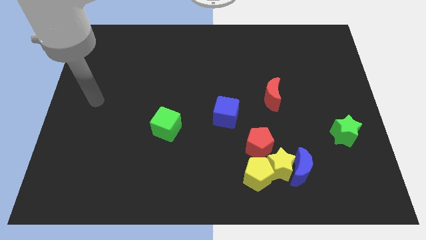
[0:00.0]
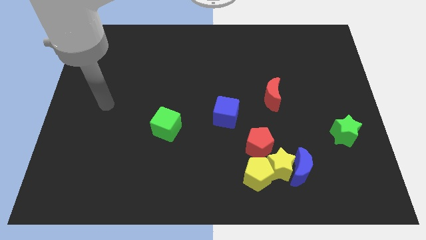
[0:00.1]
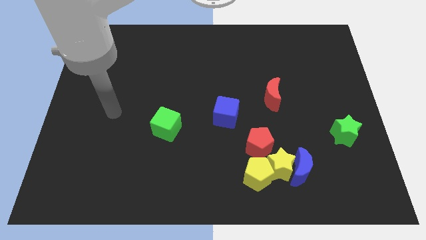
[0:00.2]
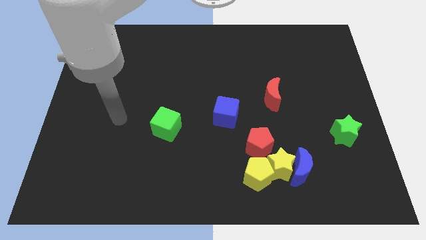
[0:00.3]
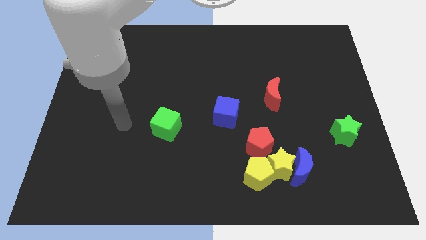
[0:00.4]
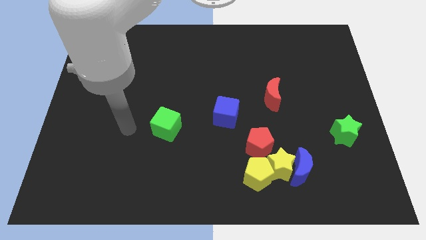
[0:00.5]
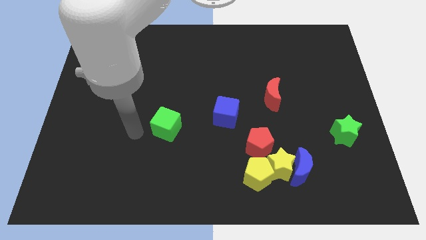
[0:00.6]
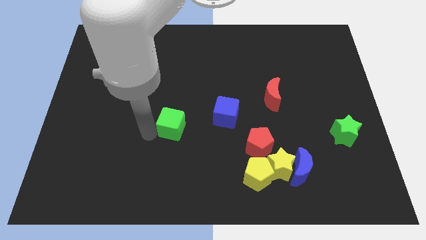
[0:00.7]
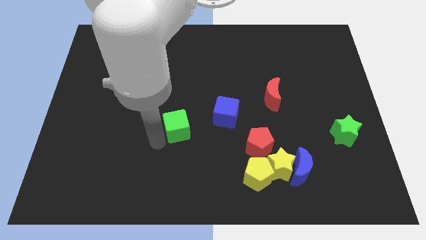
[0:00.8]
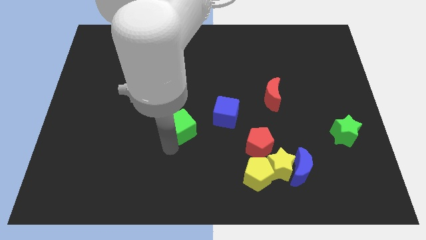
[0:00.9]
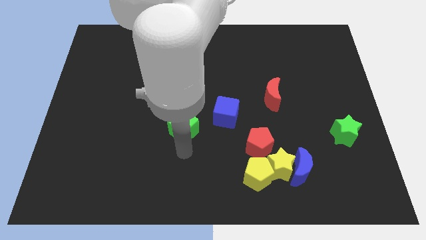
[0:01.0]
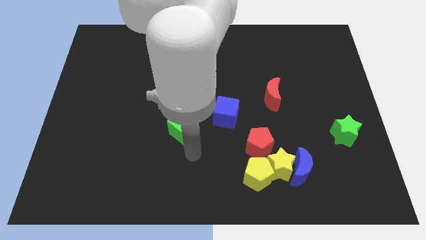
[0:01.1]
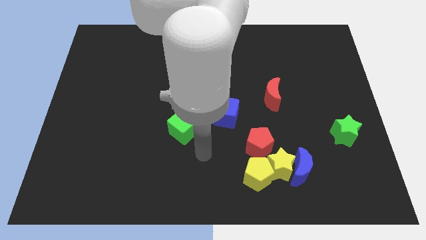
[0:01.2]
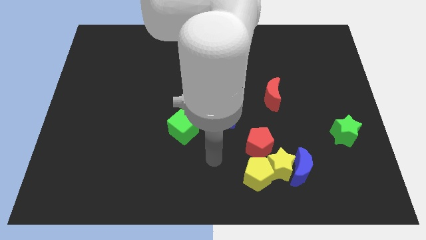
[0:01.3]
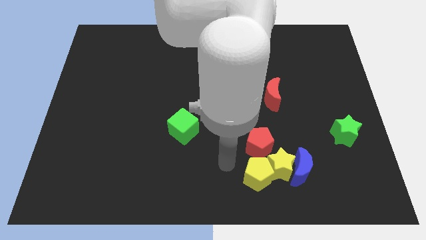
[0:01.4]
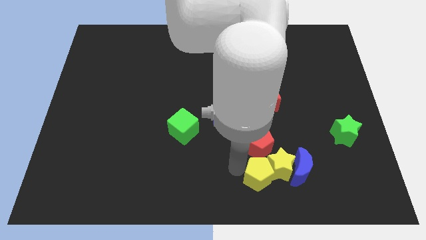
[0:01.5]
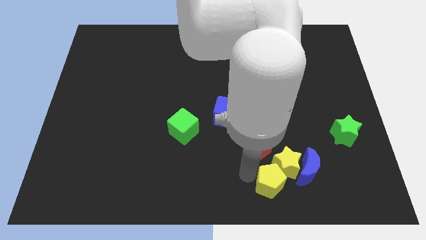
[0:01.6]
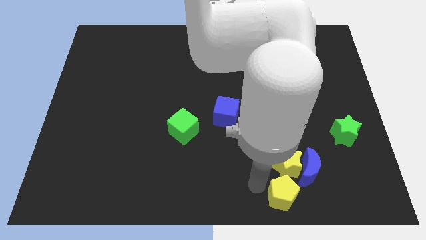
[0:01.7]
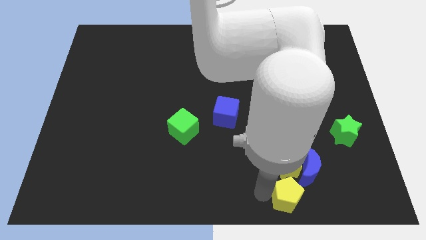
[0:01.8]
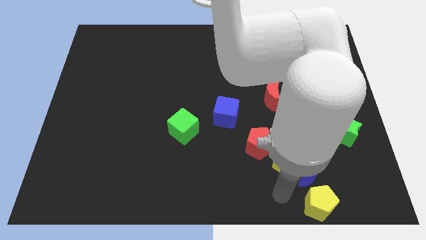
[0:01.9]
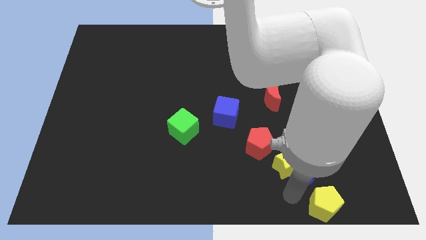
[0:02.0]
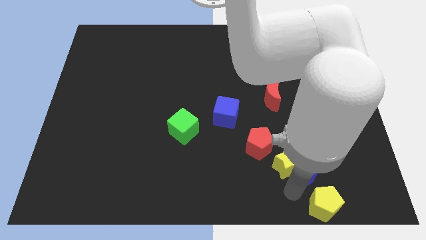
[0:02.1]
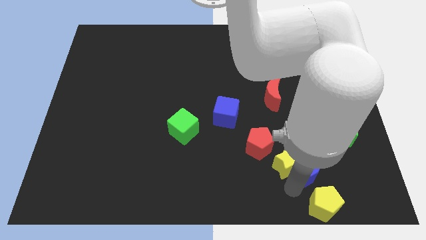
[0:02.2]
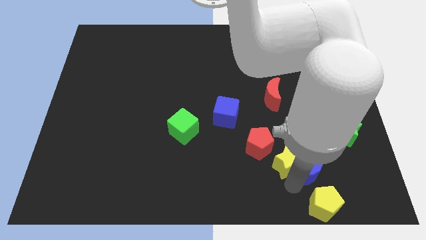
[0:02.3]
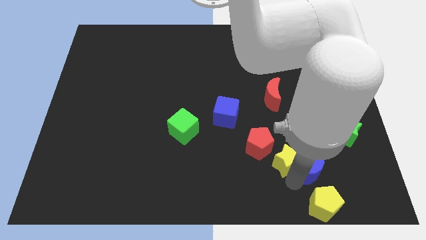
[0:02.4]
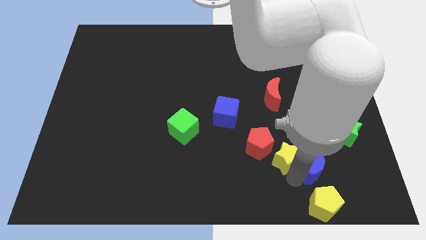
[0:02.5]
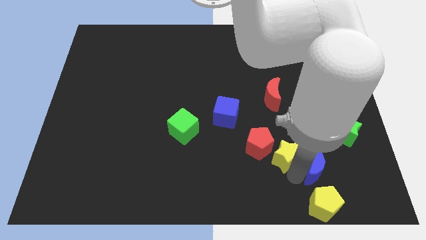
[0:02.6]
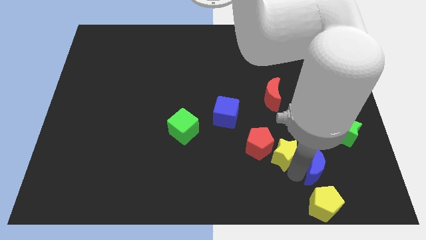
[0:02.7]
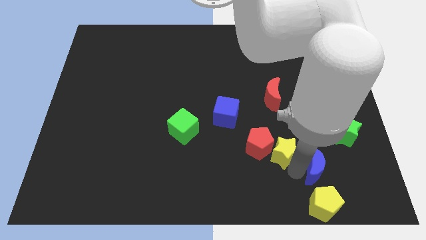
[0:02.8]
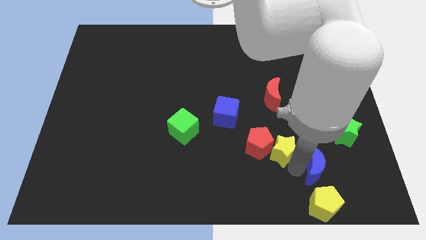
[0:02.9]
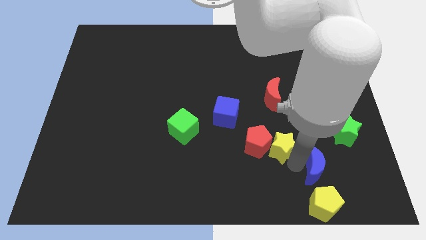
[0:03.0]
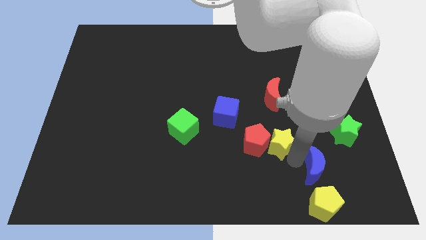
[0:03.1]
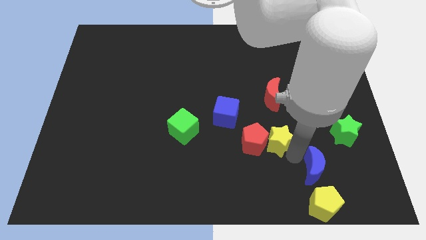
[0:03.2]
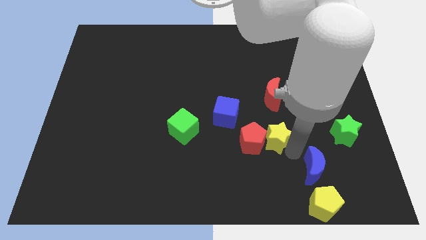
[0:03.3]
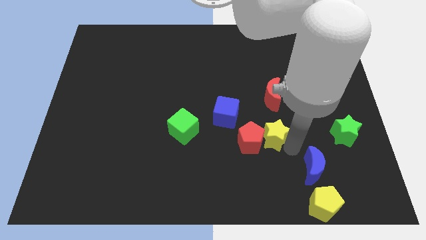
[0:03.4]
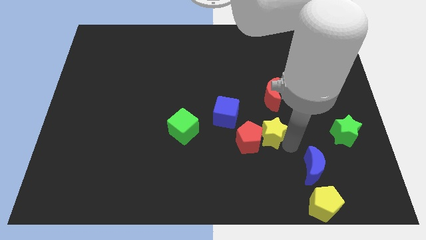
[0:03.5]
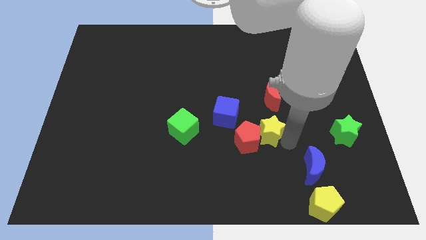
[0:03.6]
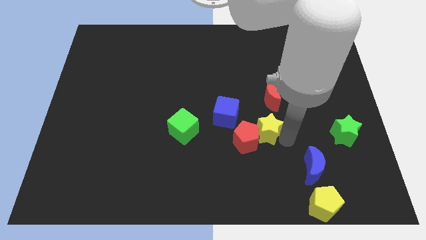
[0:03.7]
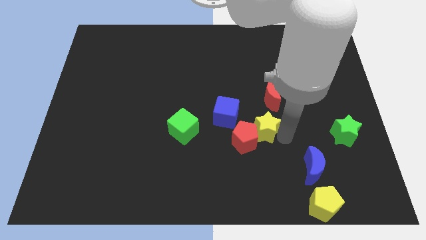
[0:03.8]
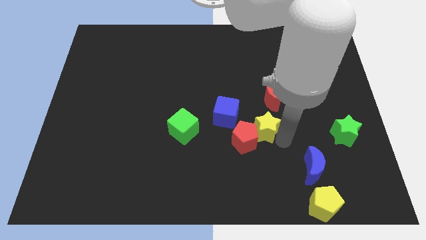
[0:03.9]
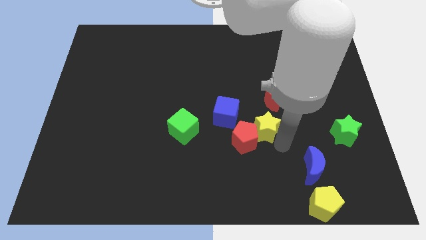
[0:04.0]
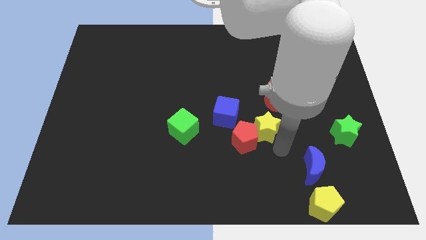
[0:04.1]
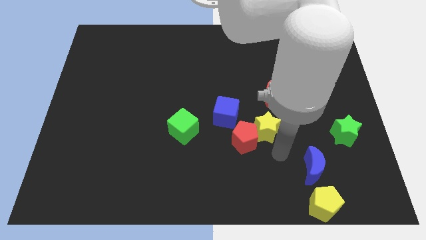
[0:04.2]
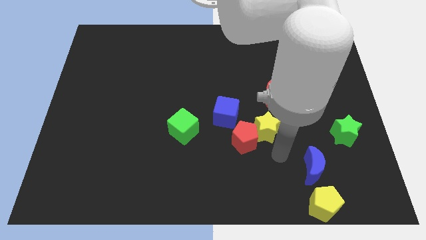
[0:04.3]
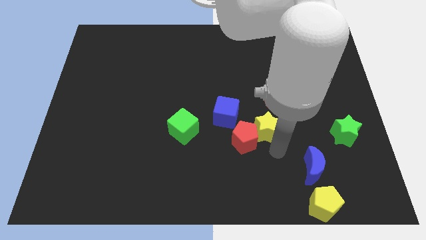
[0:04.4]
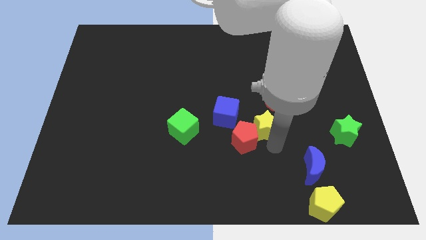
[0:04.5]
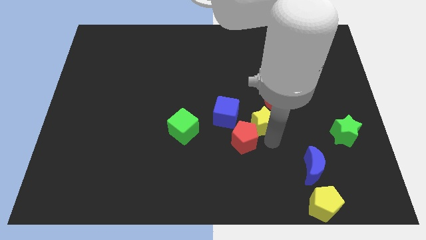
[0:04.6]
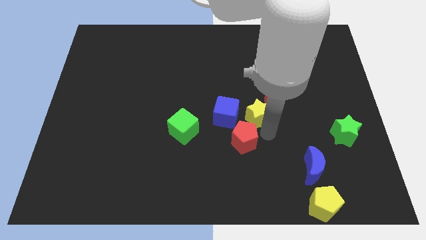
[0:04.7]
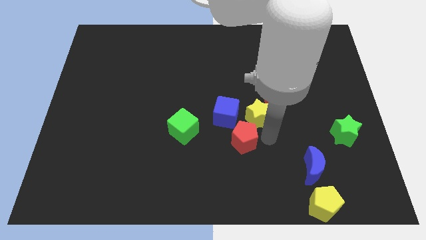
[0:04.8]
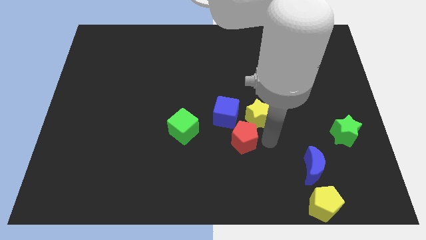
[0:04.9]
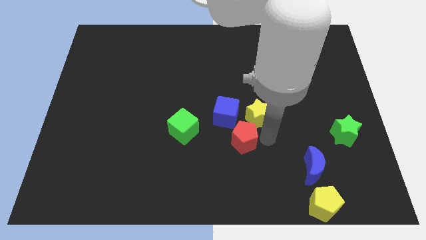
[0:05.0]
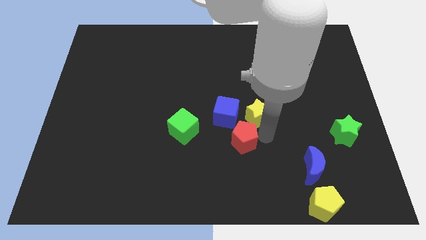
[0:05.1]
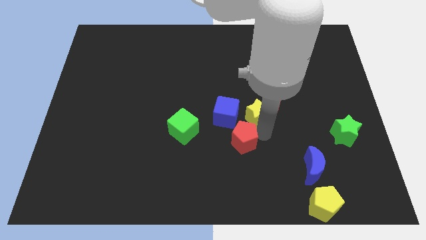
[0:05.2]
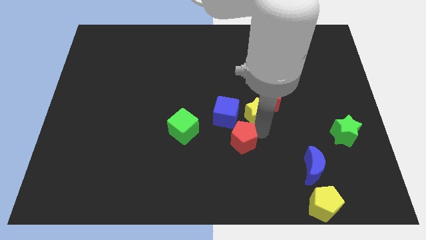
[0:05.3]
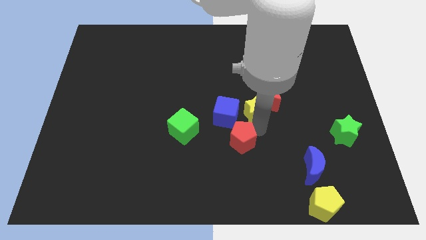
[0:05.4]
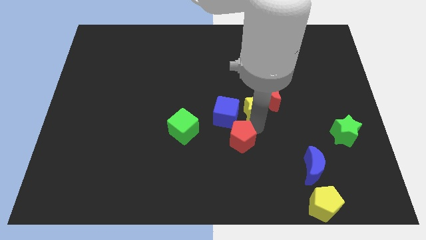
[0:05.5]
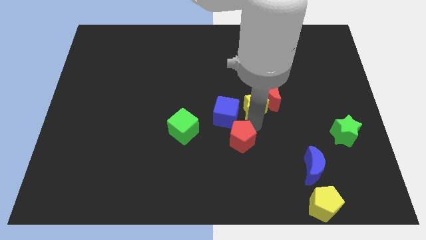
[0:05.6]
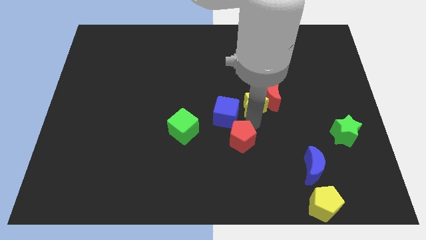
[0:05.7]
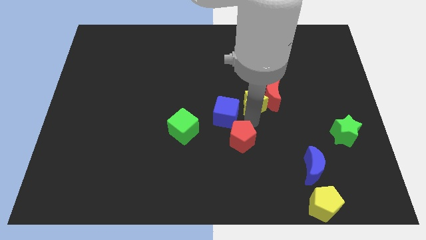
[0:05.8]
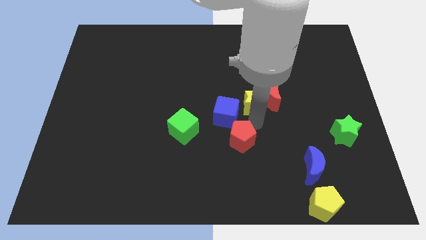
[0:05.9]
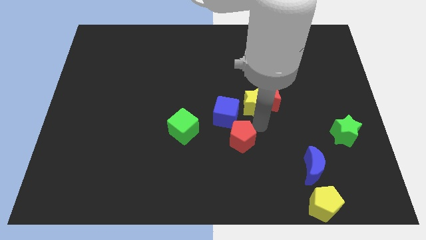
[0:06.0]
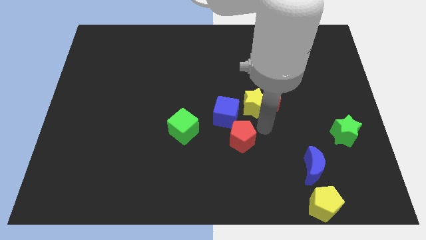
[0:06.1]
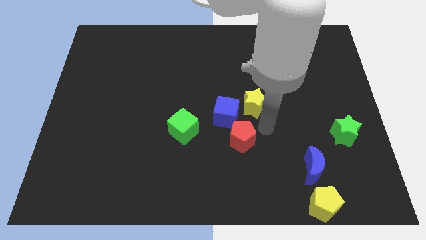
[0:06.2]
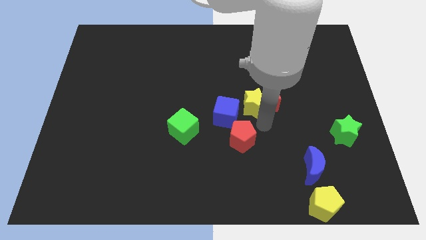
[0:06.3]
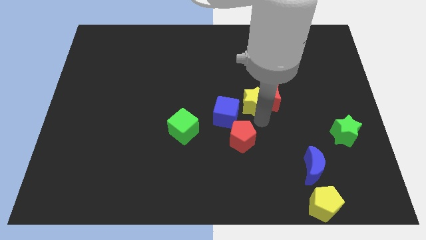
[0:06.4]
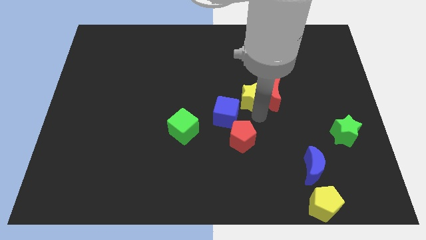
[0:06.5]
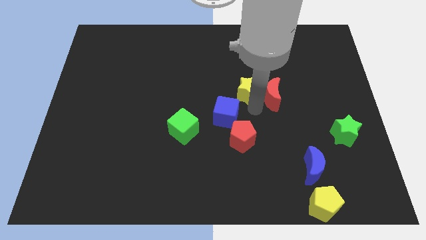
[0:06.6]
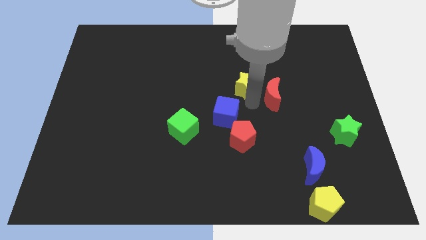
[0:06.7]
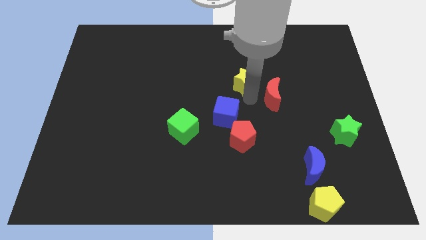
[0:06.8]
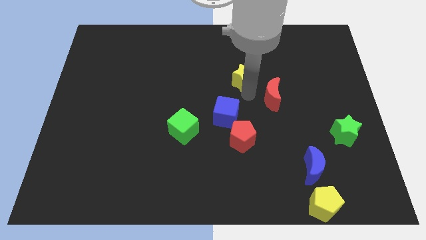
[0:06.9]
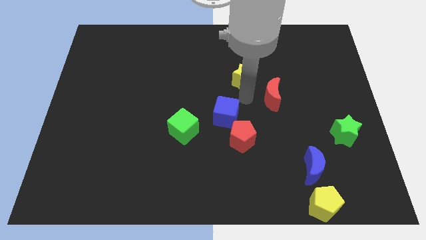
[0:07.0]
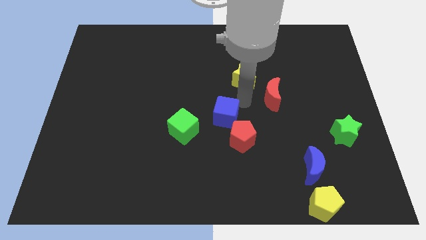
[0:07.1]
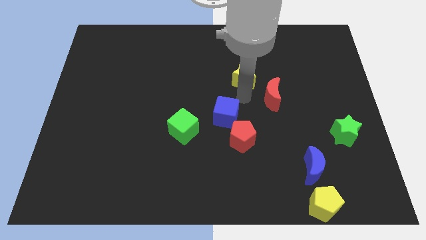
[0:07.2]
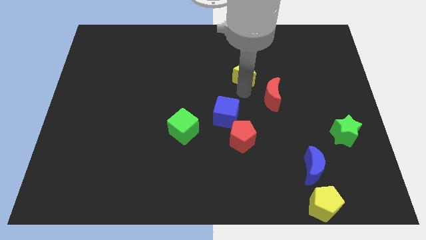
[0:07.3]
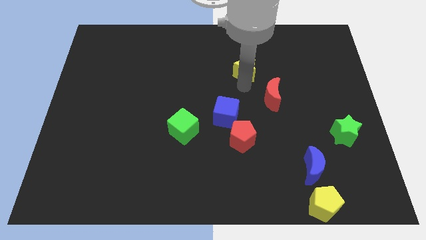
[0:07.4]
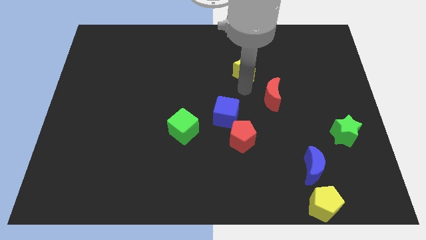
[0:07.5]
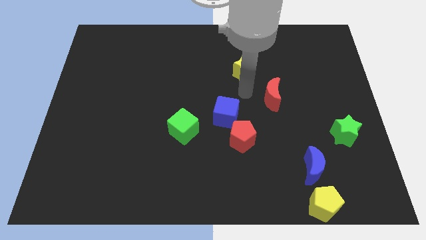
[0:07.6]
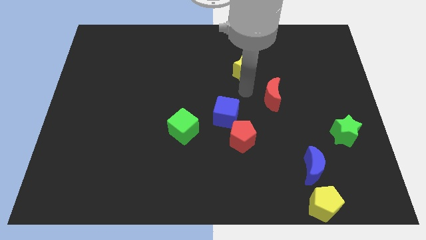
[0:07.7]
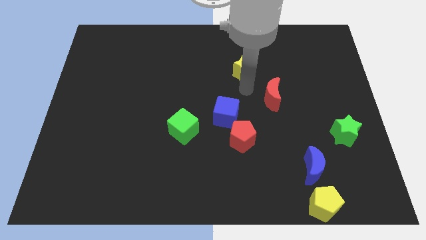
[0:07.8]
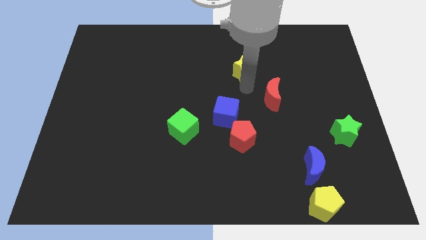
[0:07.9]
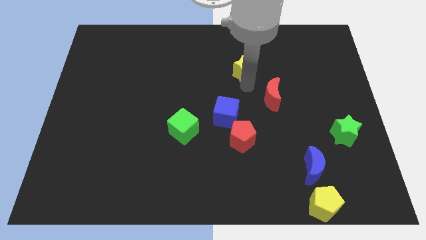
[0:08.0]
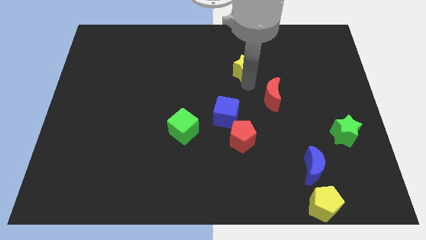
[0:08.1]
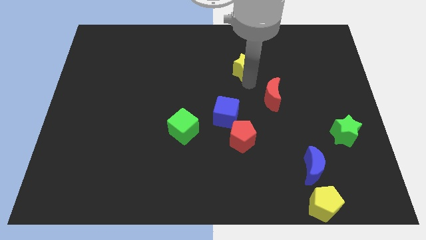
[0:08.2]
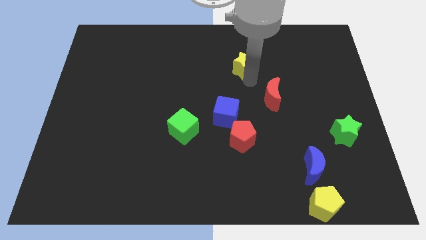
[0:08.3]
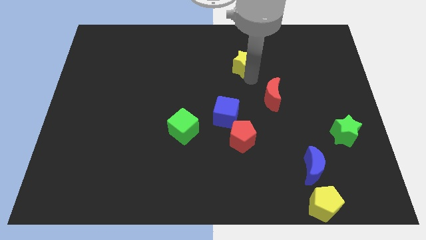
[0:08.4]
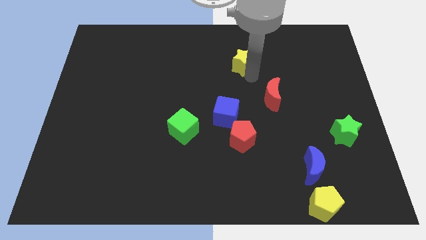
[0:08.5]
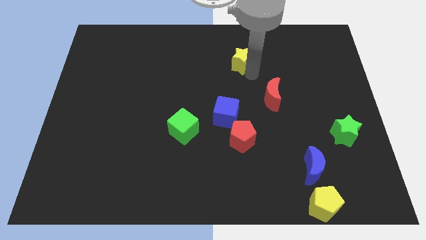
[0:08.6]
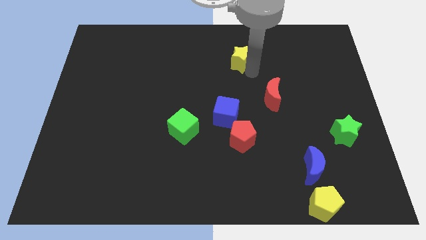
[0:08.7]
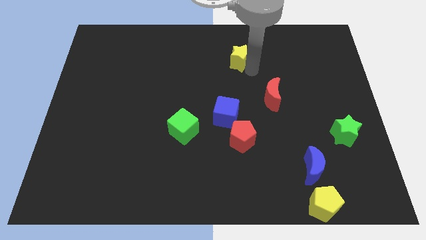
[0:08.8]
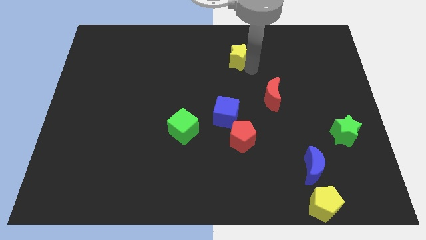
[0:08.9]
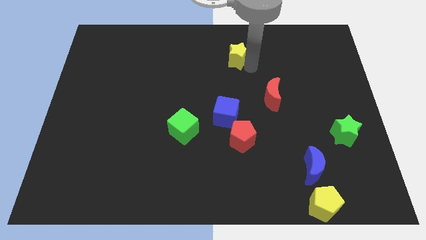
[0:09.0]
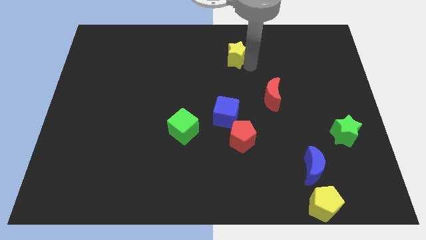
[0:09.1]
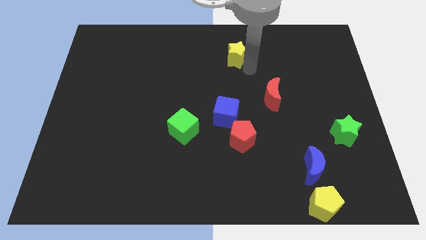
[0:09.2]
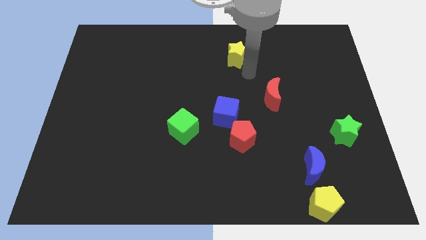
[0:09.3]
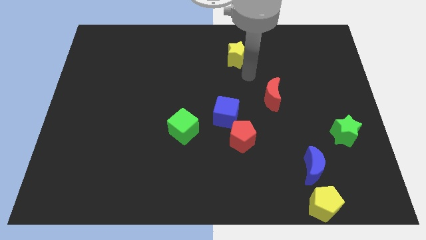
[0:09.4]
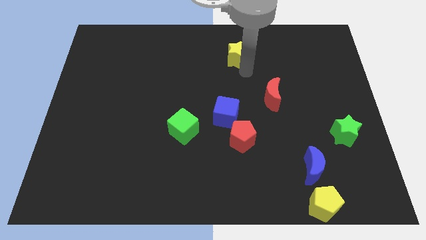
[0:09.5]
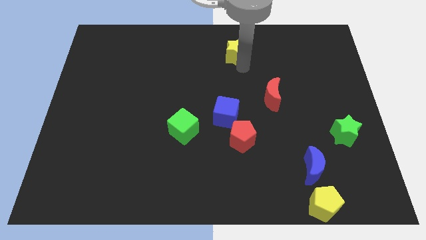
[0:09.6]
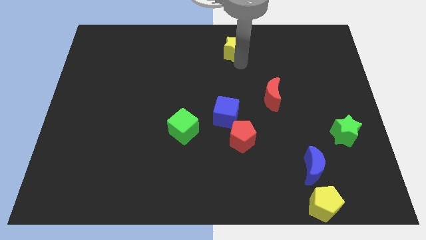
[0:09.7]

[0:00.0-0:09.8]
put the yellow star to the top
